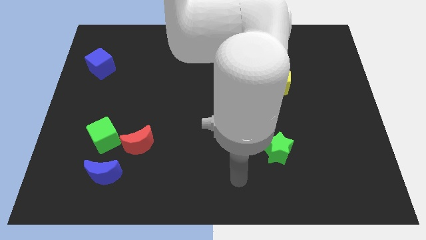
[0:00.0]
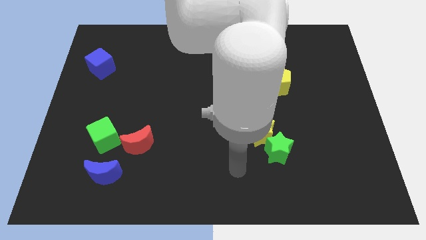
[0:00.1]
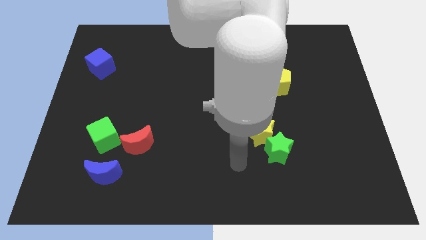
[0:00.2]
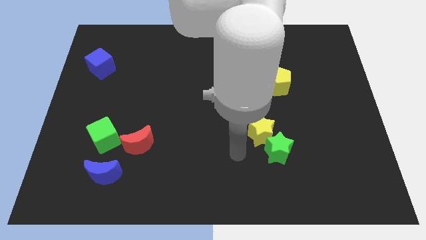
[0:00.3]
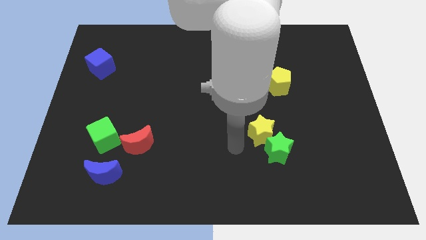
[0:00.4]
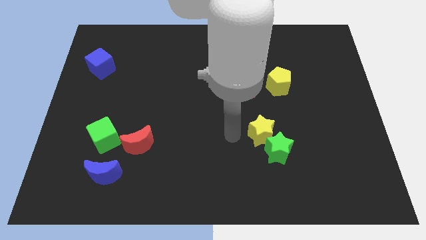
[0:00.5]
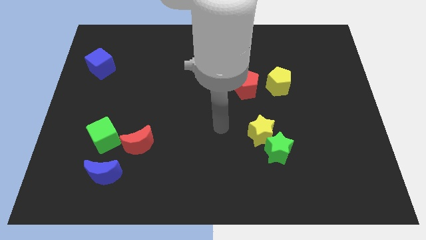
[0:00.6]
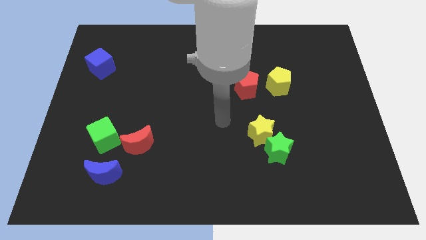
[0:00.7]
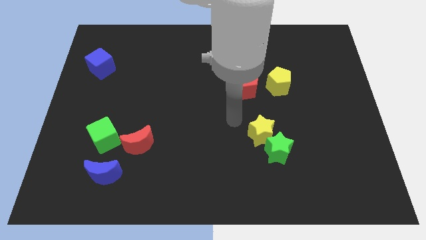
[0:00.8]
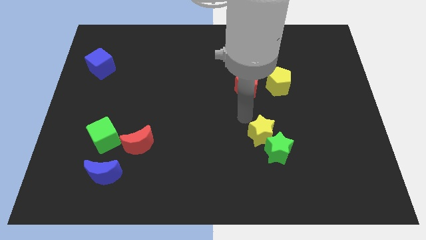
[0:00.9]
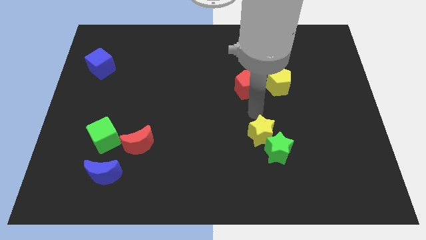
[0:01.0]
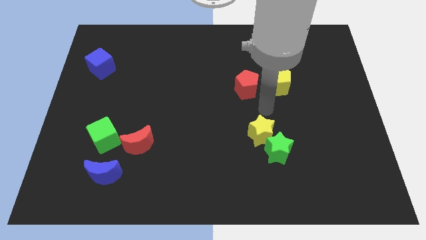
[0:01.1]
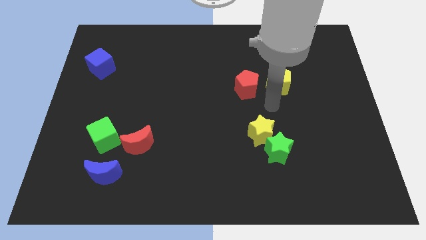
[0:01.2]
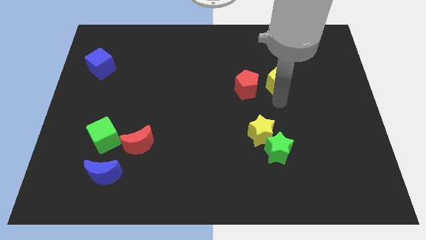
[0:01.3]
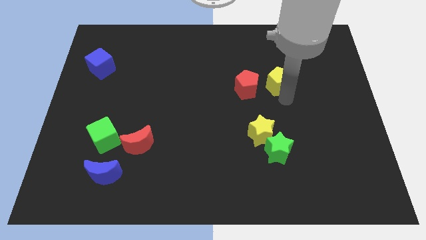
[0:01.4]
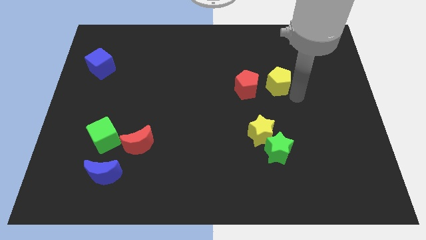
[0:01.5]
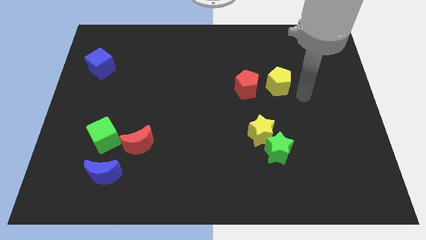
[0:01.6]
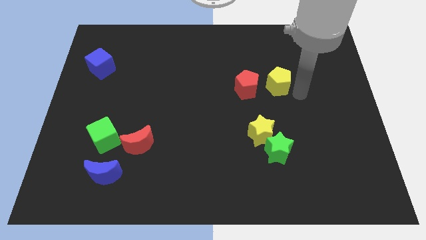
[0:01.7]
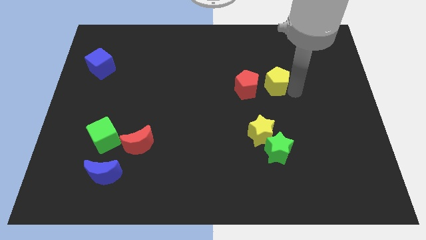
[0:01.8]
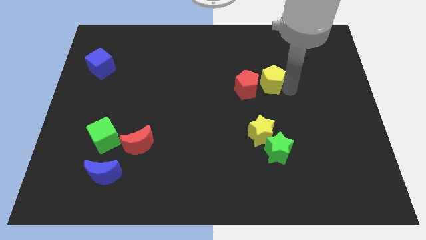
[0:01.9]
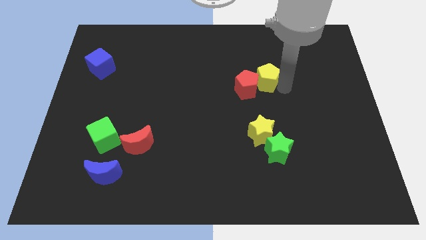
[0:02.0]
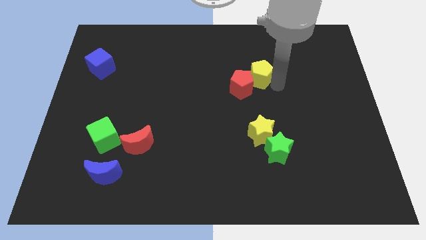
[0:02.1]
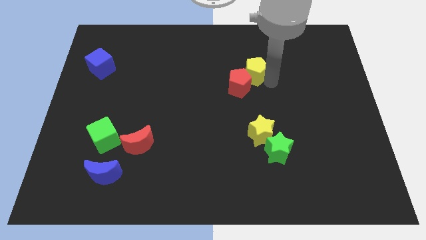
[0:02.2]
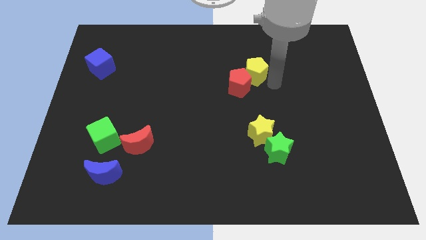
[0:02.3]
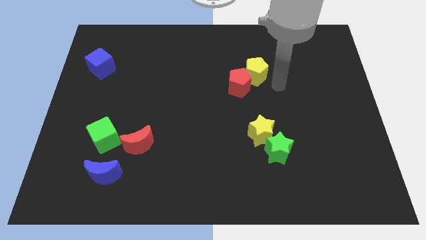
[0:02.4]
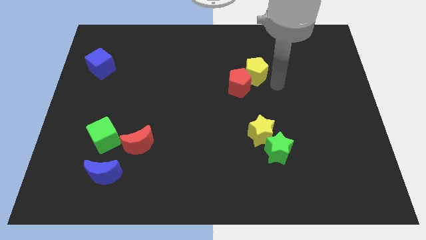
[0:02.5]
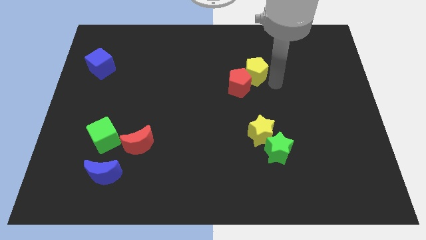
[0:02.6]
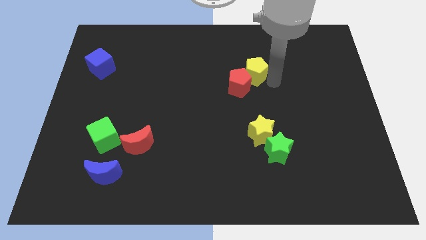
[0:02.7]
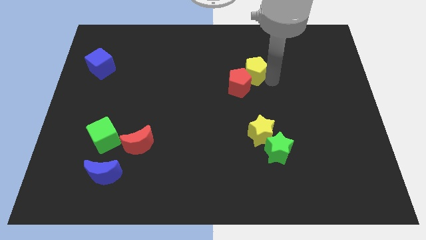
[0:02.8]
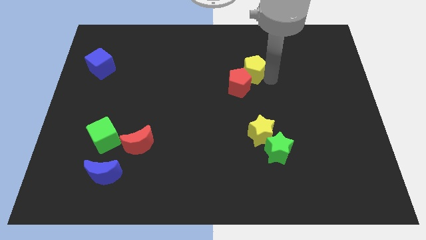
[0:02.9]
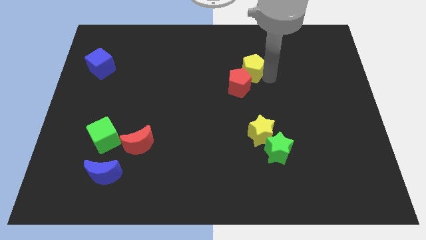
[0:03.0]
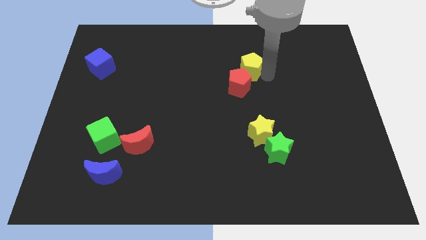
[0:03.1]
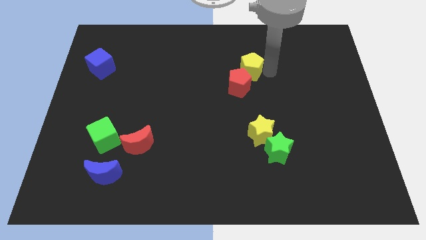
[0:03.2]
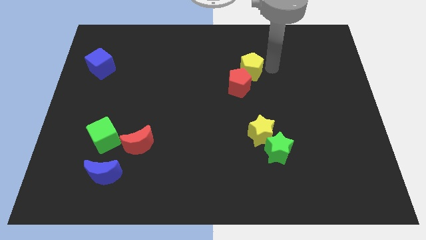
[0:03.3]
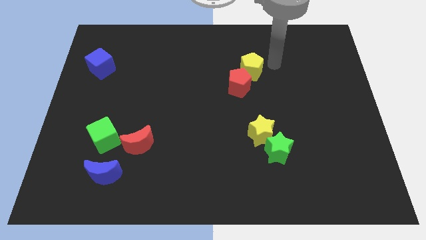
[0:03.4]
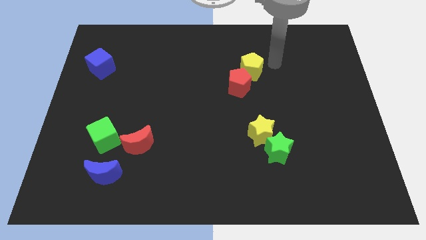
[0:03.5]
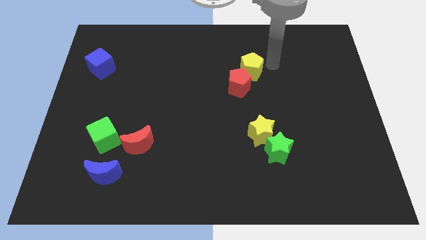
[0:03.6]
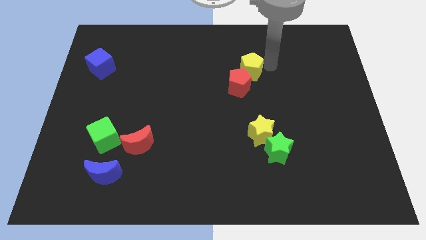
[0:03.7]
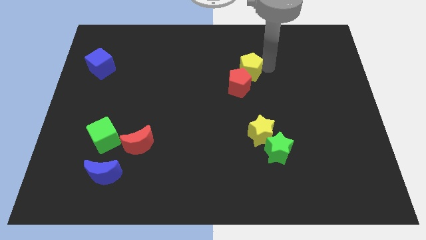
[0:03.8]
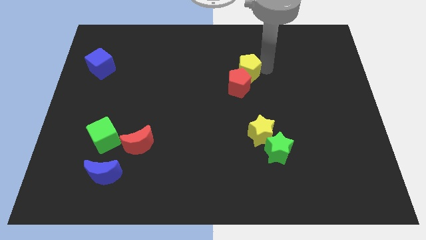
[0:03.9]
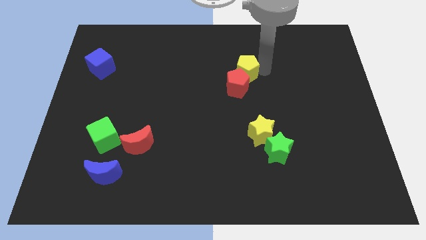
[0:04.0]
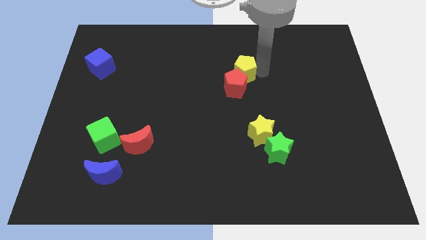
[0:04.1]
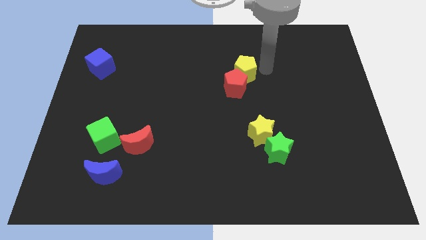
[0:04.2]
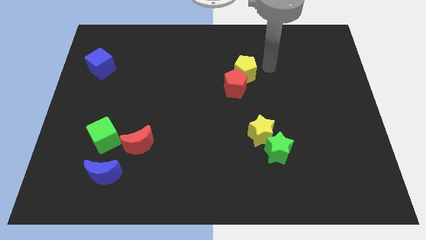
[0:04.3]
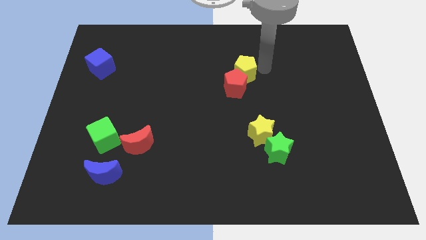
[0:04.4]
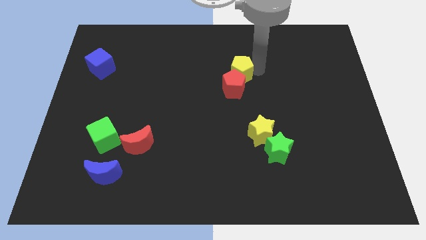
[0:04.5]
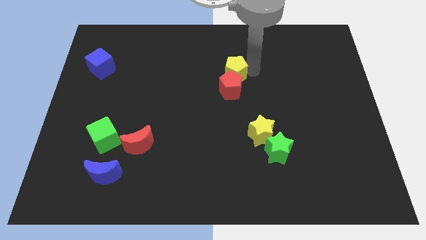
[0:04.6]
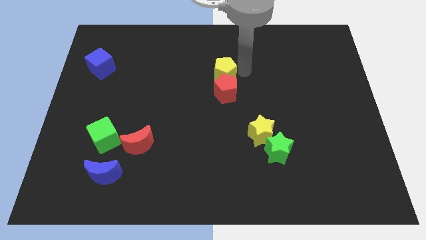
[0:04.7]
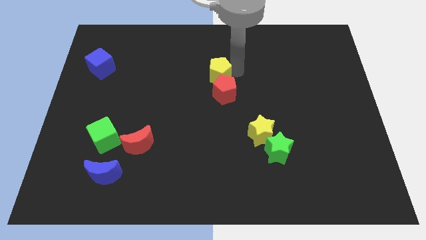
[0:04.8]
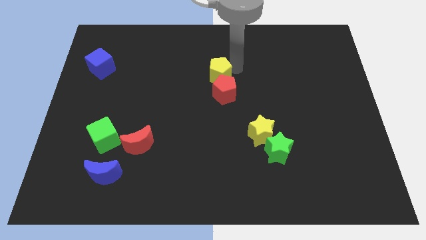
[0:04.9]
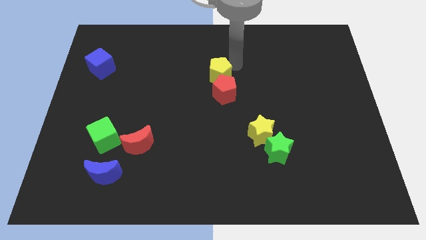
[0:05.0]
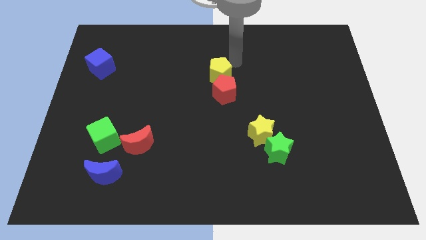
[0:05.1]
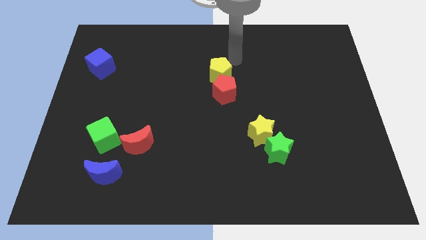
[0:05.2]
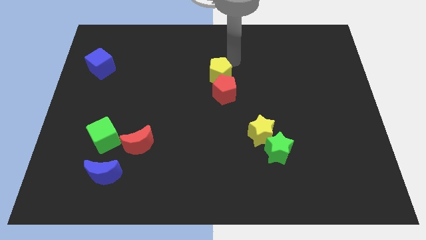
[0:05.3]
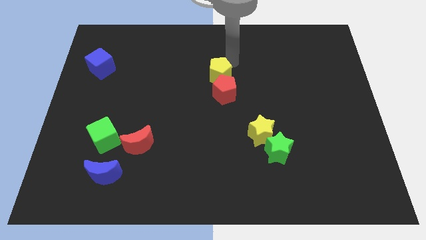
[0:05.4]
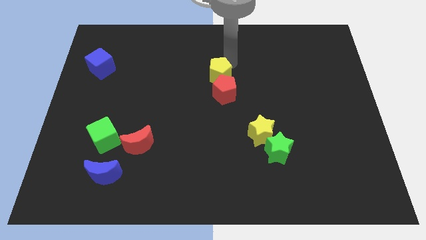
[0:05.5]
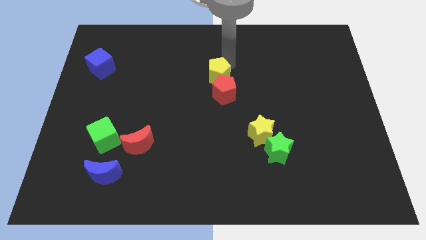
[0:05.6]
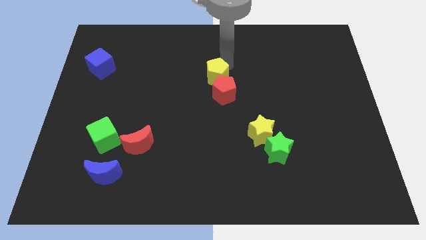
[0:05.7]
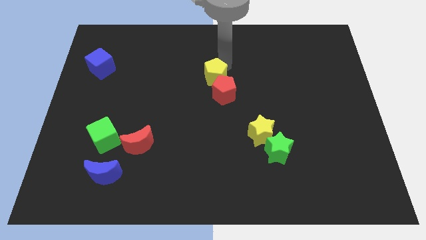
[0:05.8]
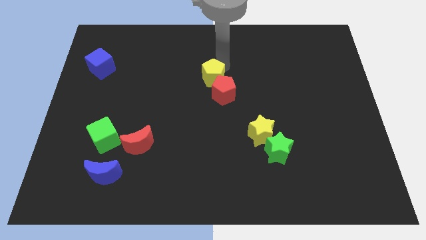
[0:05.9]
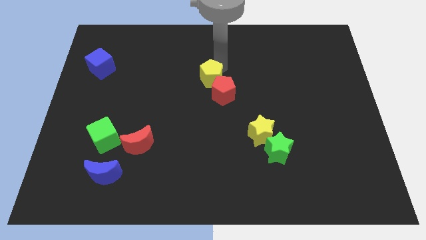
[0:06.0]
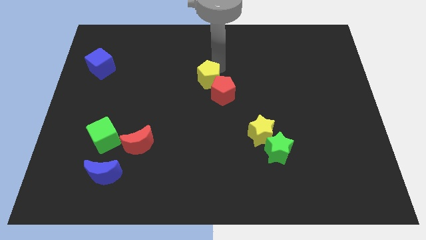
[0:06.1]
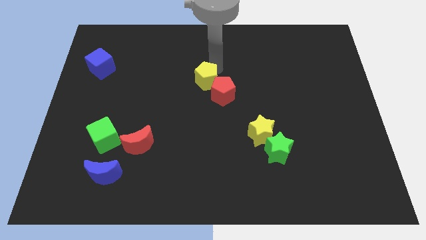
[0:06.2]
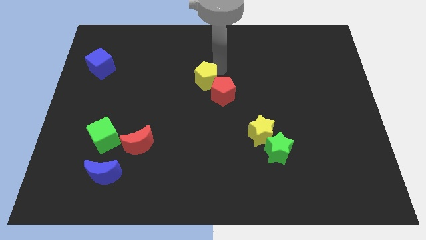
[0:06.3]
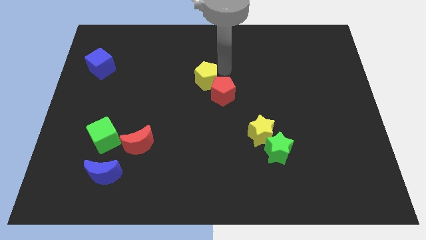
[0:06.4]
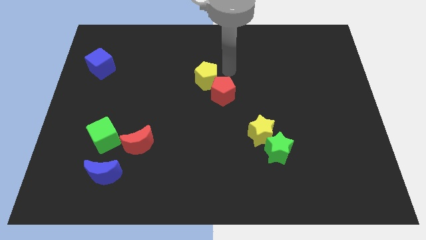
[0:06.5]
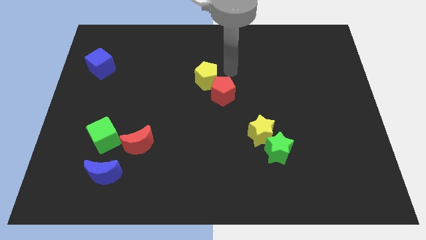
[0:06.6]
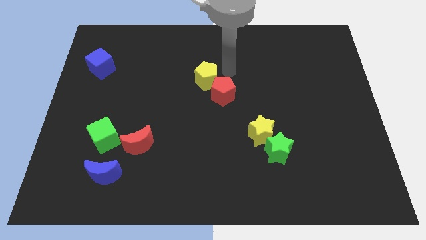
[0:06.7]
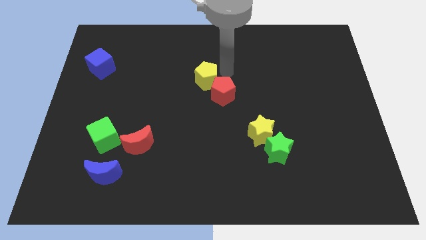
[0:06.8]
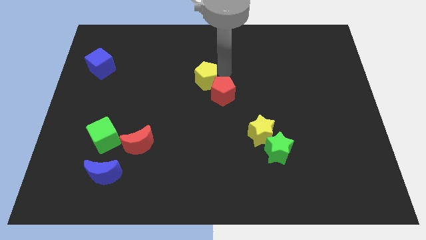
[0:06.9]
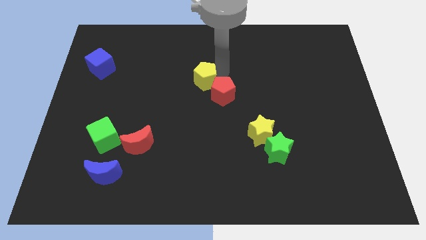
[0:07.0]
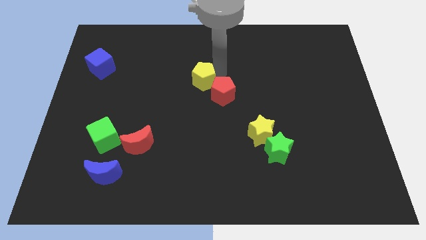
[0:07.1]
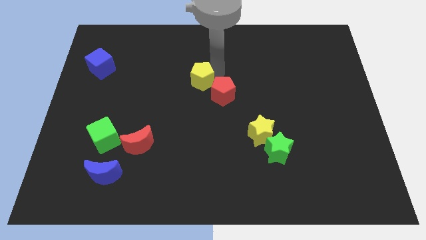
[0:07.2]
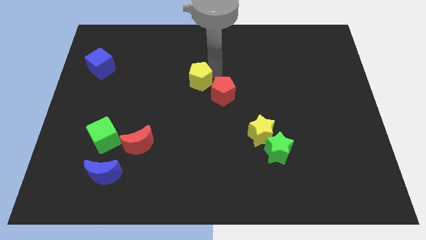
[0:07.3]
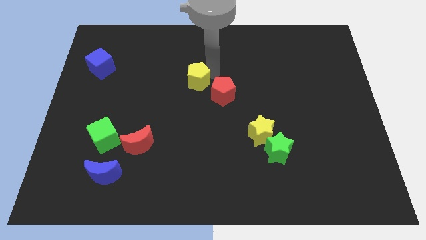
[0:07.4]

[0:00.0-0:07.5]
slide the yellow pentagon left

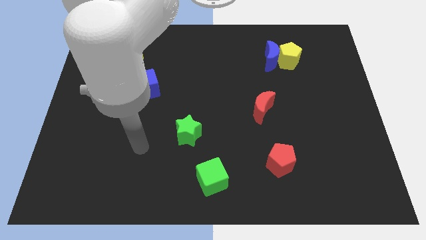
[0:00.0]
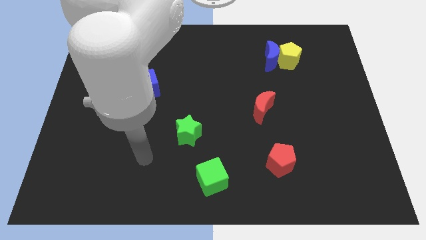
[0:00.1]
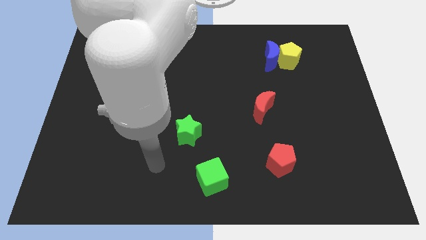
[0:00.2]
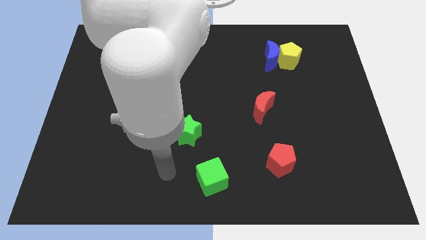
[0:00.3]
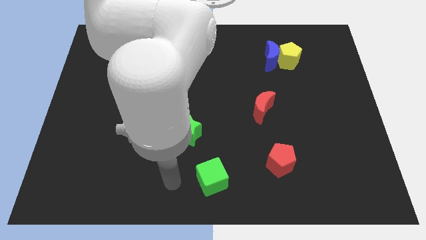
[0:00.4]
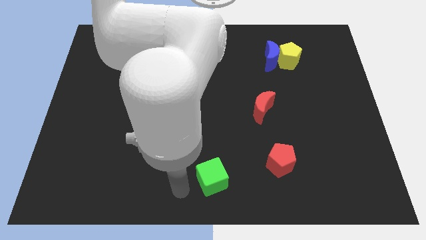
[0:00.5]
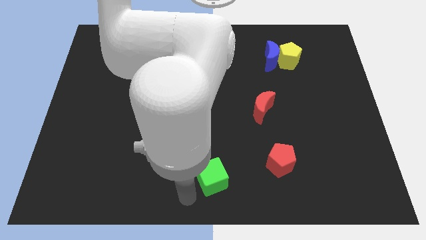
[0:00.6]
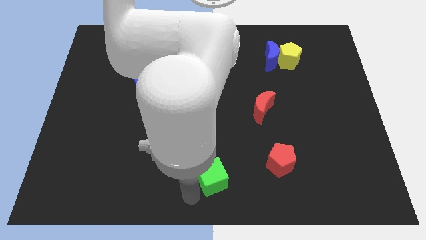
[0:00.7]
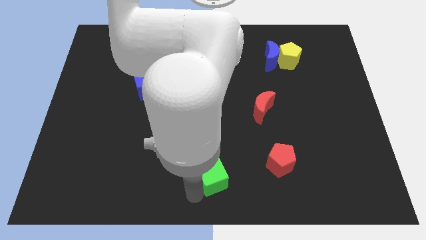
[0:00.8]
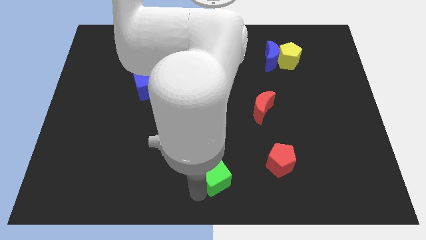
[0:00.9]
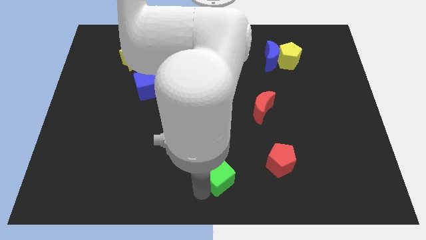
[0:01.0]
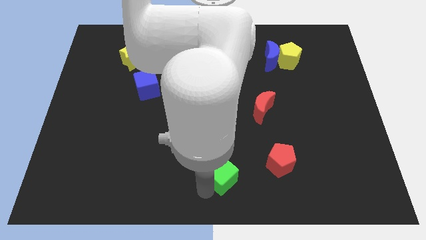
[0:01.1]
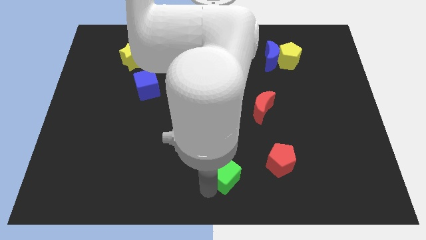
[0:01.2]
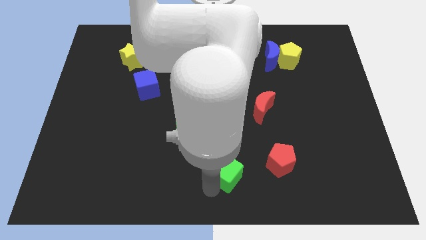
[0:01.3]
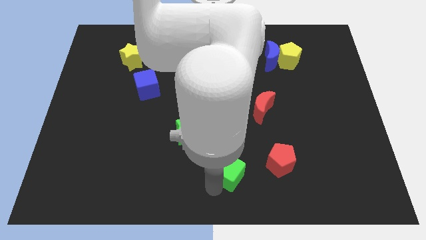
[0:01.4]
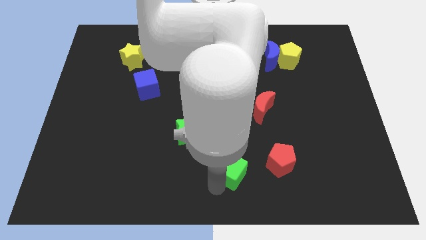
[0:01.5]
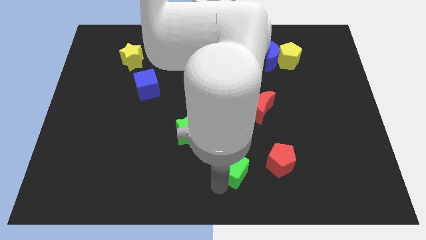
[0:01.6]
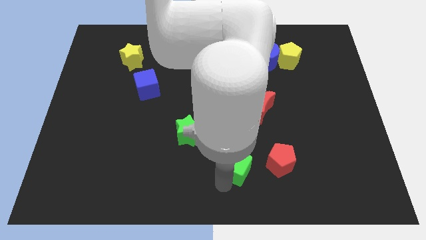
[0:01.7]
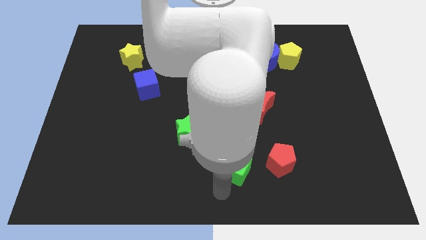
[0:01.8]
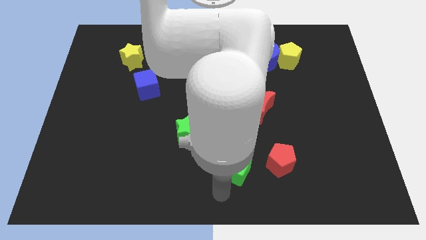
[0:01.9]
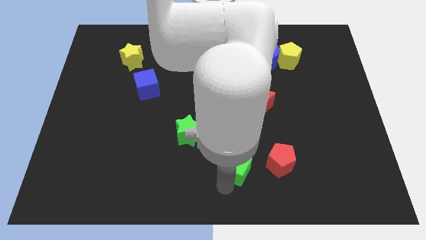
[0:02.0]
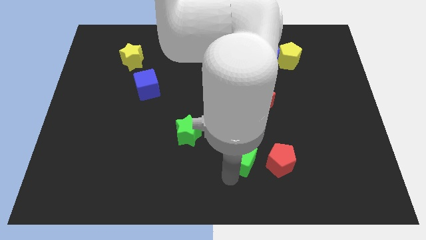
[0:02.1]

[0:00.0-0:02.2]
slightly slide the green cube upwards and right
